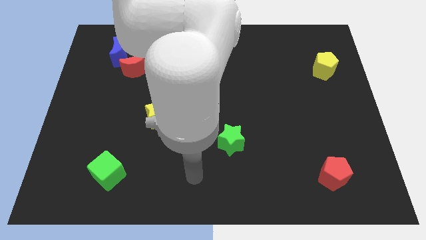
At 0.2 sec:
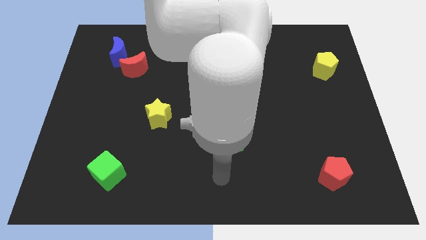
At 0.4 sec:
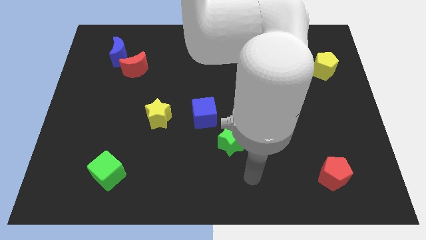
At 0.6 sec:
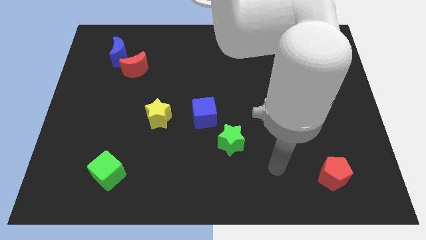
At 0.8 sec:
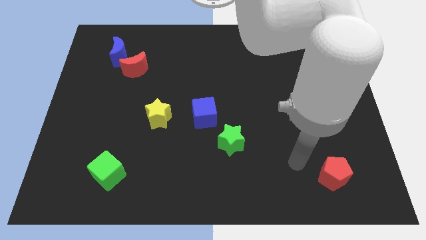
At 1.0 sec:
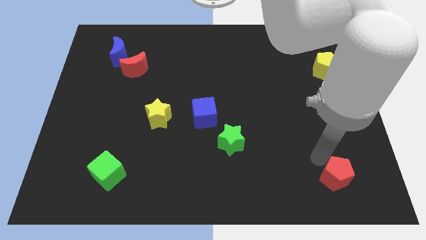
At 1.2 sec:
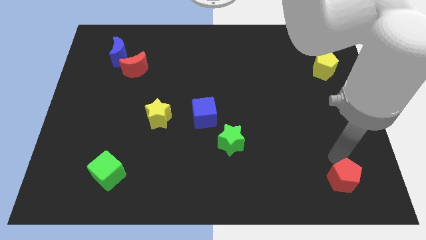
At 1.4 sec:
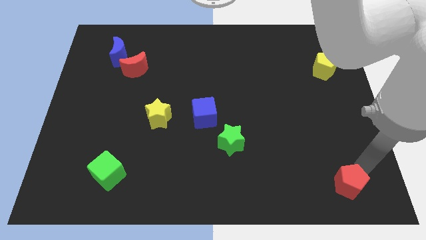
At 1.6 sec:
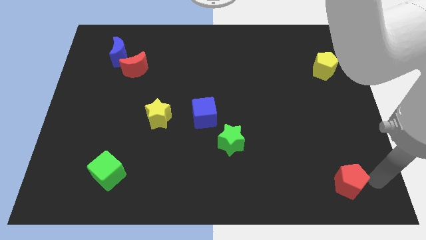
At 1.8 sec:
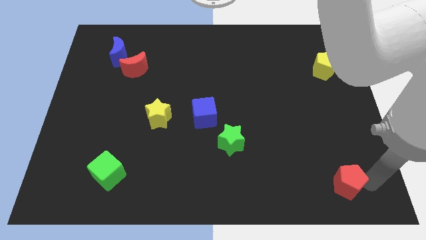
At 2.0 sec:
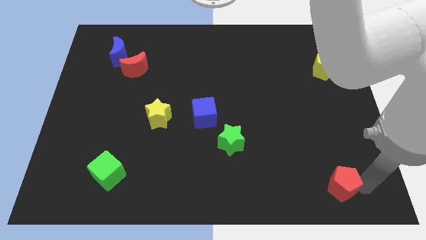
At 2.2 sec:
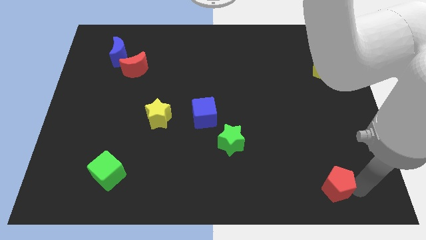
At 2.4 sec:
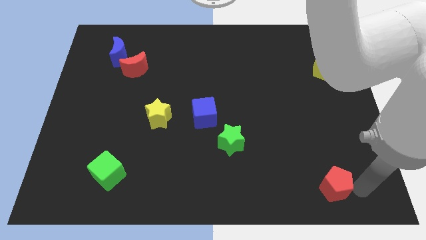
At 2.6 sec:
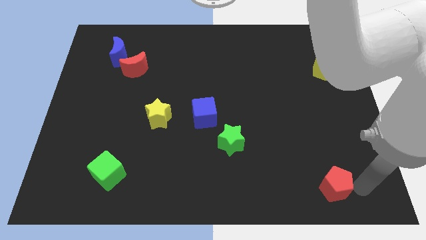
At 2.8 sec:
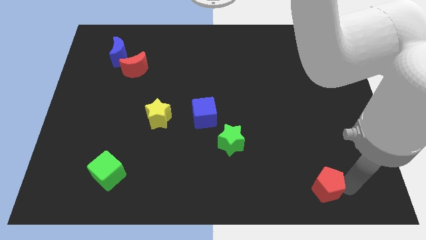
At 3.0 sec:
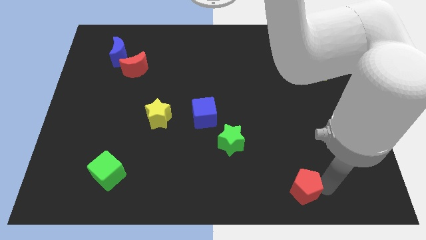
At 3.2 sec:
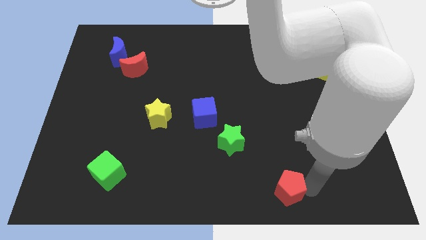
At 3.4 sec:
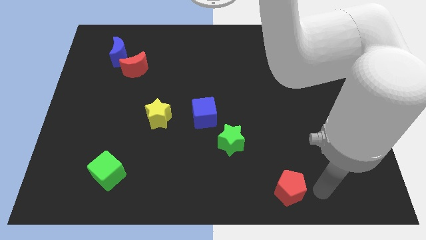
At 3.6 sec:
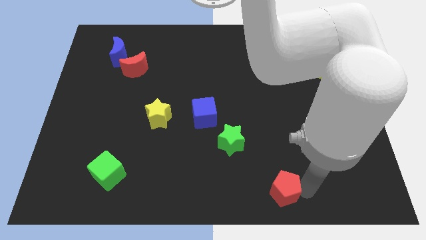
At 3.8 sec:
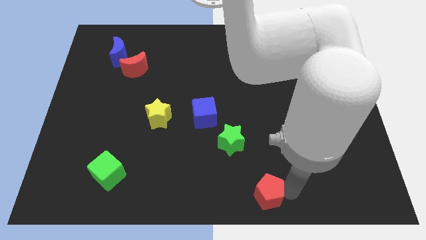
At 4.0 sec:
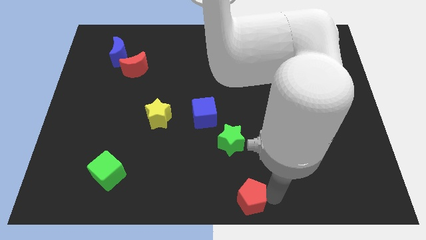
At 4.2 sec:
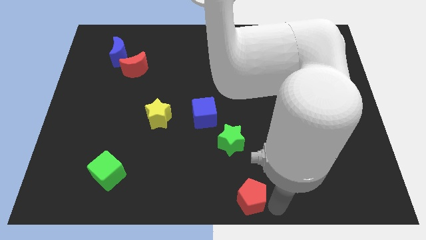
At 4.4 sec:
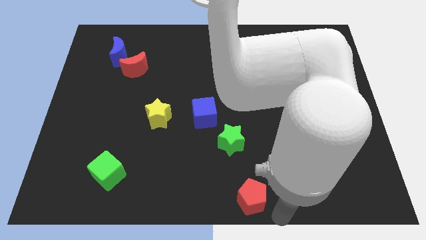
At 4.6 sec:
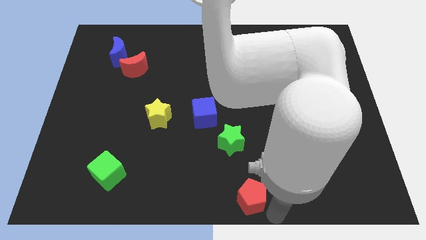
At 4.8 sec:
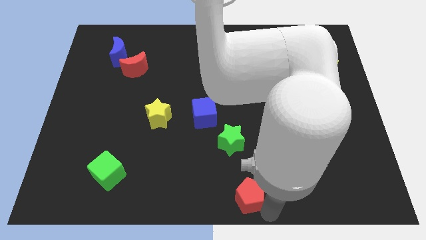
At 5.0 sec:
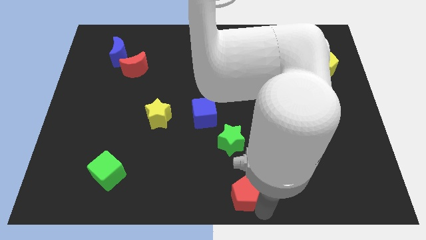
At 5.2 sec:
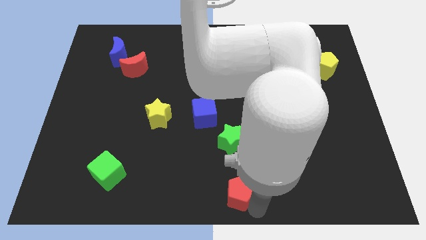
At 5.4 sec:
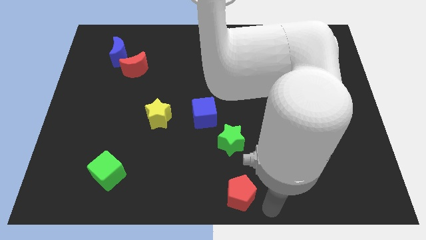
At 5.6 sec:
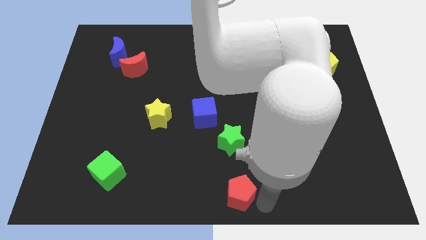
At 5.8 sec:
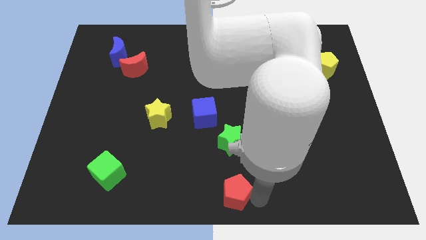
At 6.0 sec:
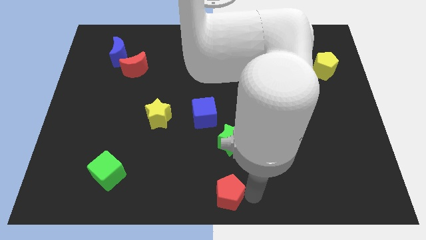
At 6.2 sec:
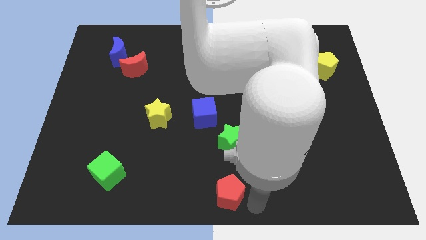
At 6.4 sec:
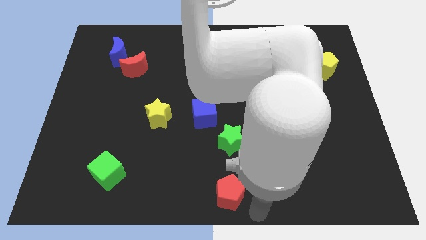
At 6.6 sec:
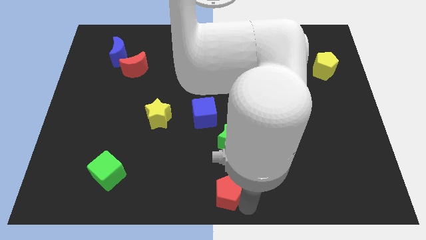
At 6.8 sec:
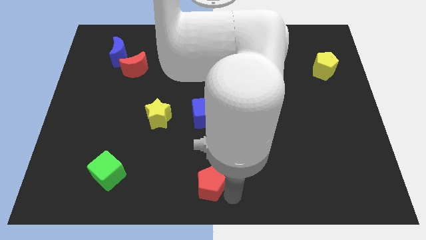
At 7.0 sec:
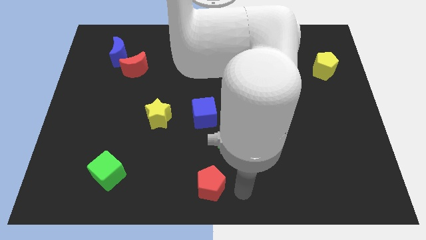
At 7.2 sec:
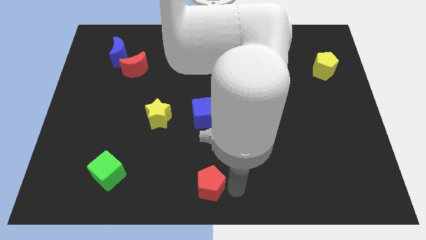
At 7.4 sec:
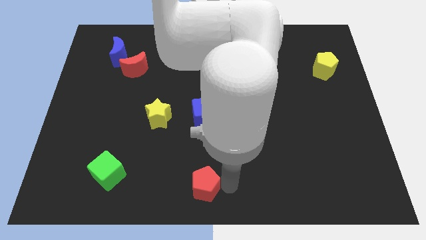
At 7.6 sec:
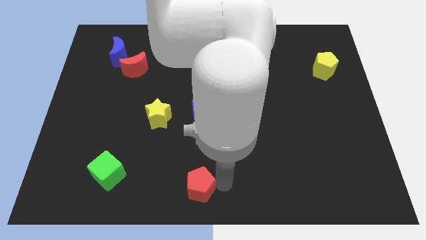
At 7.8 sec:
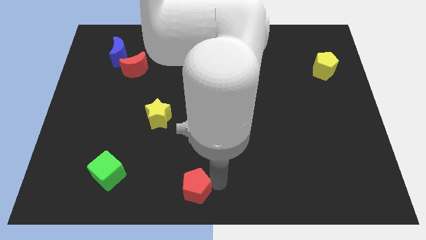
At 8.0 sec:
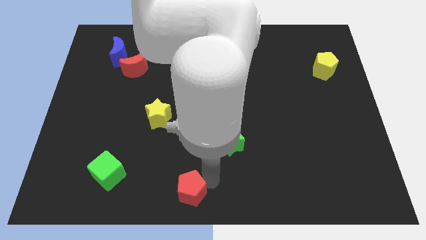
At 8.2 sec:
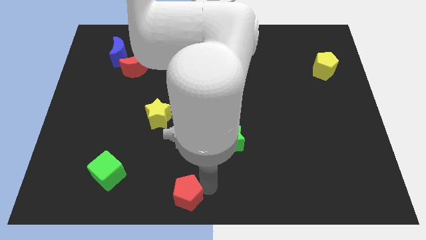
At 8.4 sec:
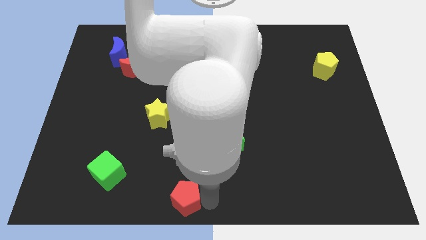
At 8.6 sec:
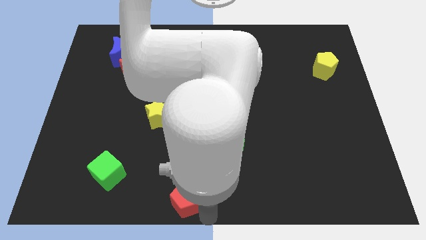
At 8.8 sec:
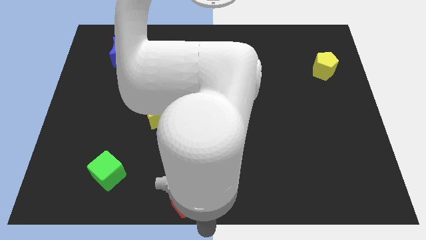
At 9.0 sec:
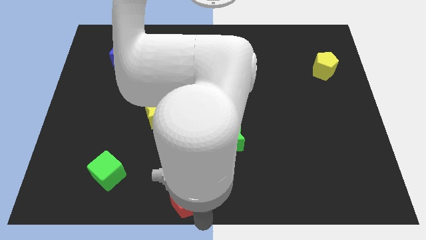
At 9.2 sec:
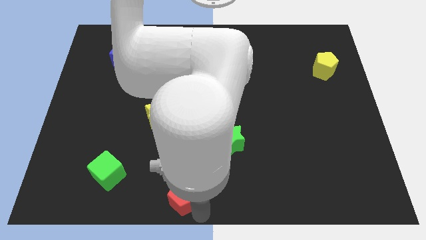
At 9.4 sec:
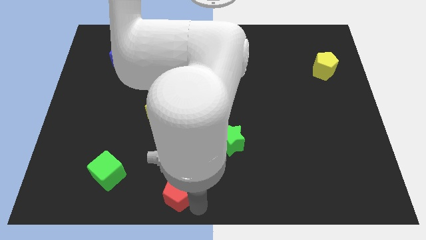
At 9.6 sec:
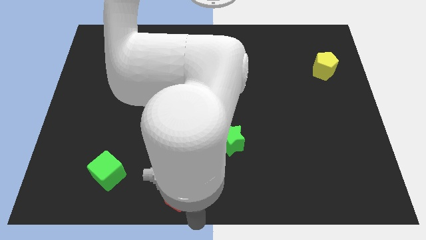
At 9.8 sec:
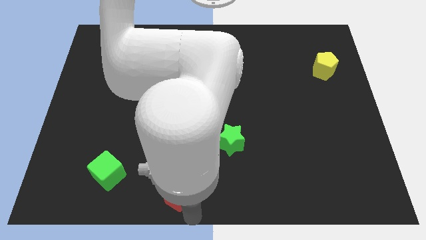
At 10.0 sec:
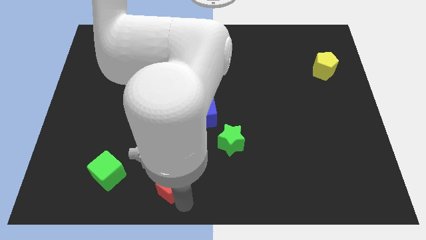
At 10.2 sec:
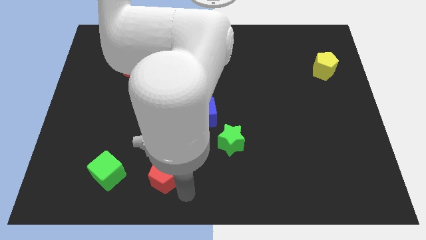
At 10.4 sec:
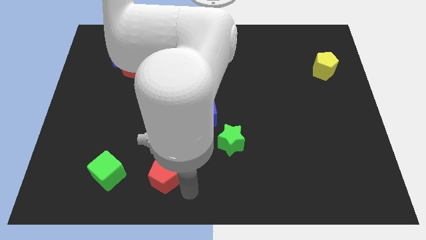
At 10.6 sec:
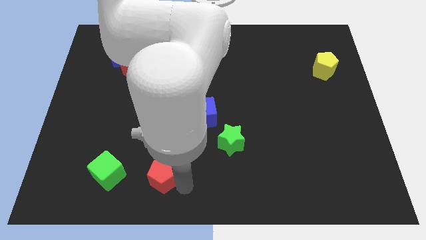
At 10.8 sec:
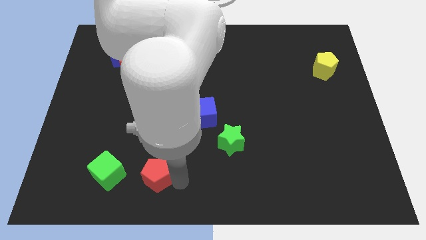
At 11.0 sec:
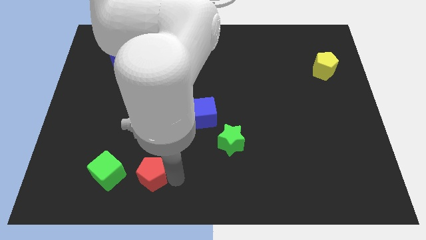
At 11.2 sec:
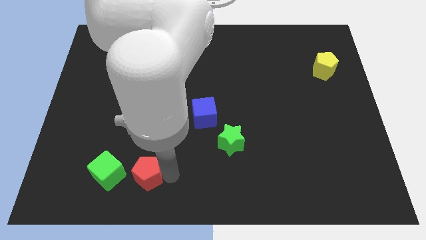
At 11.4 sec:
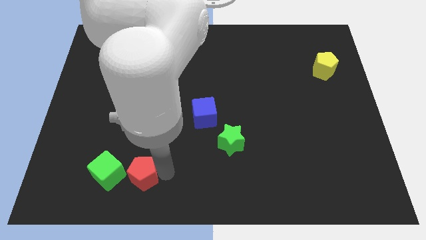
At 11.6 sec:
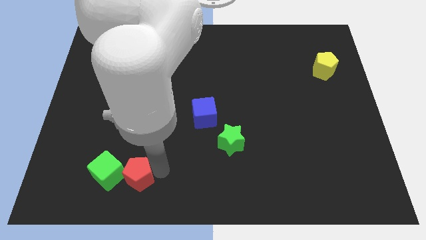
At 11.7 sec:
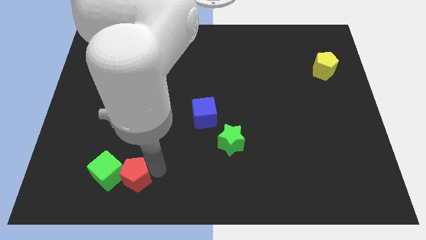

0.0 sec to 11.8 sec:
move the red pentagon close to the green cube

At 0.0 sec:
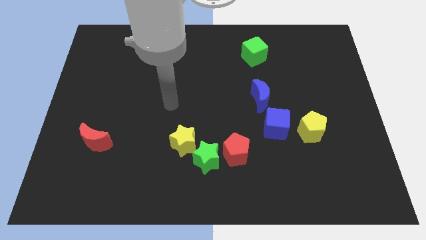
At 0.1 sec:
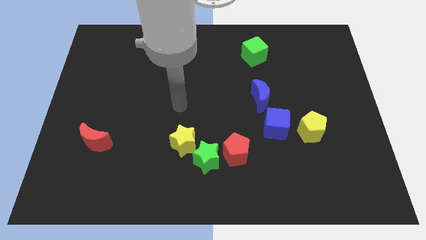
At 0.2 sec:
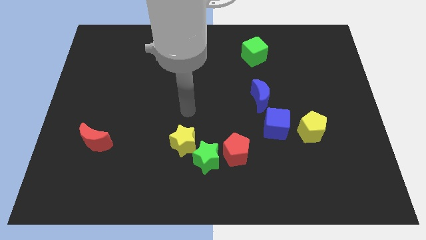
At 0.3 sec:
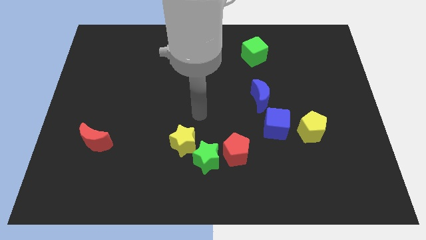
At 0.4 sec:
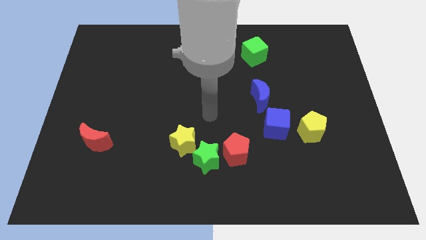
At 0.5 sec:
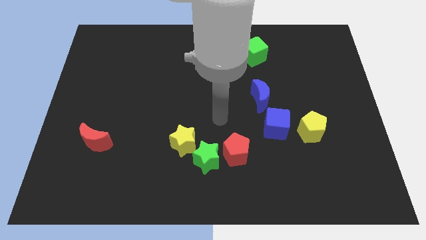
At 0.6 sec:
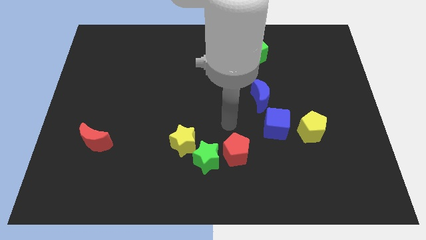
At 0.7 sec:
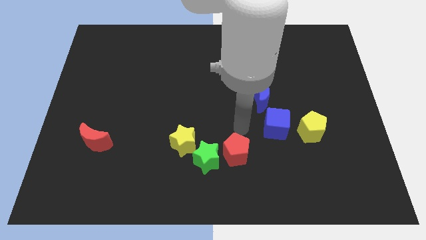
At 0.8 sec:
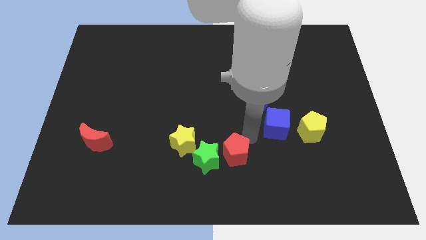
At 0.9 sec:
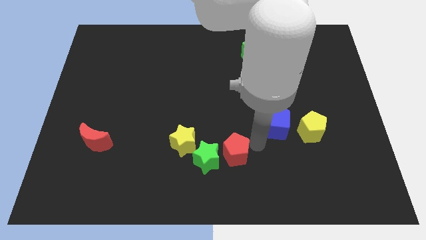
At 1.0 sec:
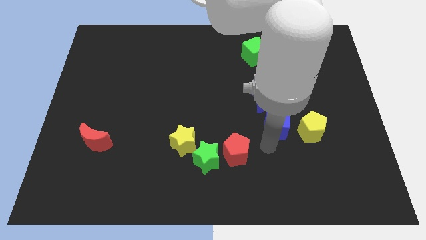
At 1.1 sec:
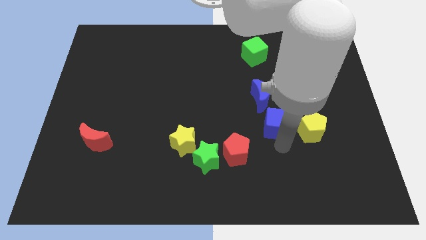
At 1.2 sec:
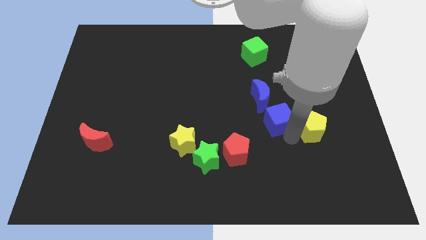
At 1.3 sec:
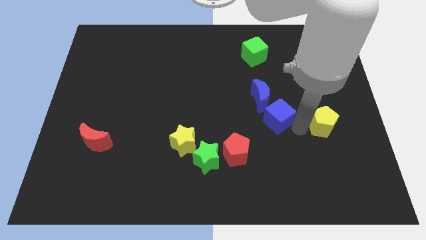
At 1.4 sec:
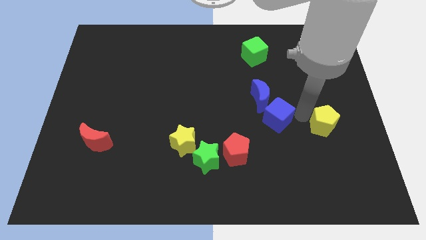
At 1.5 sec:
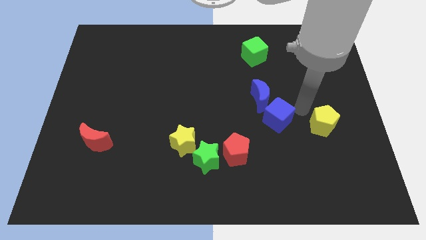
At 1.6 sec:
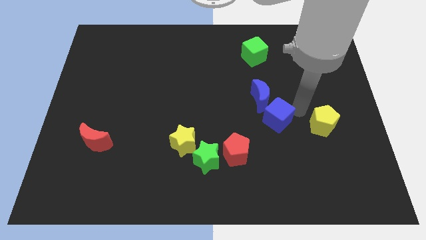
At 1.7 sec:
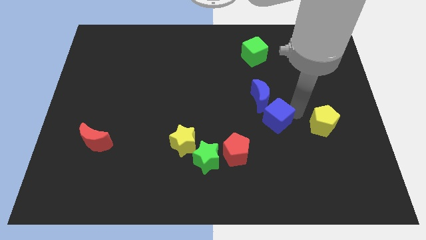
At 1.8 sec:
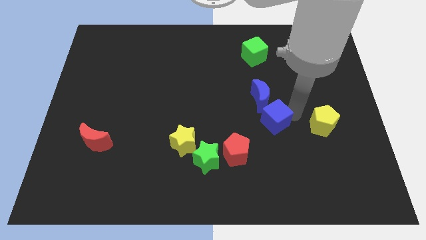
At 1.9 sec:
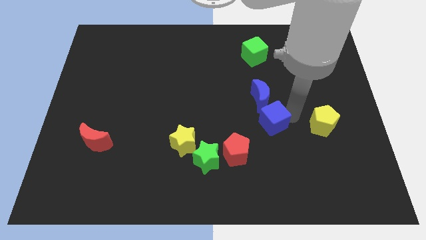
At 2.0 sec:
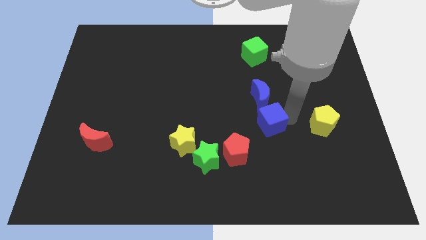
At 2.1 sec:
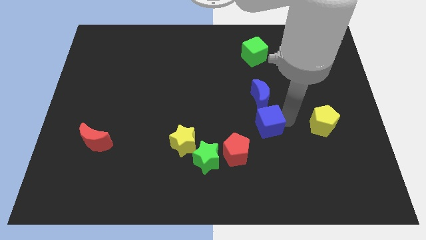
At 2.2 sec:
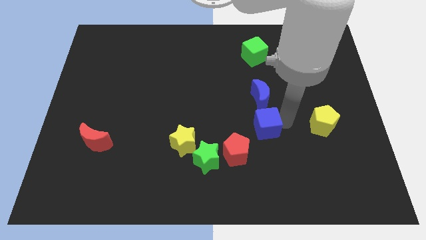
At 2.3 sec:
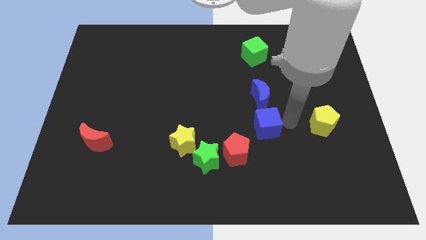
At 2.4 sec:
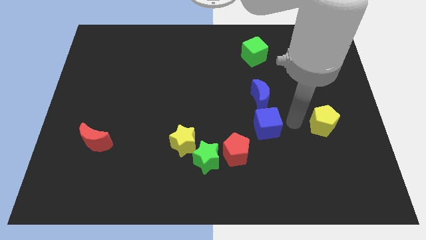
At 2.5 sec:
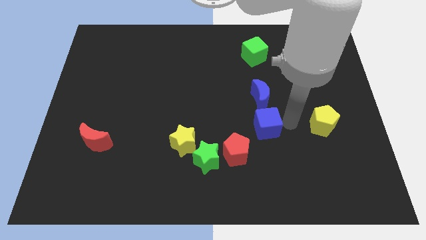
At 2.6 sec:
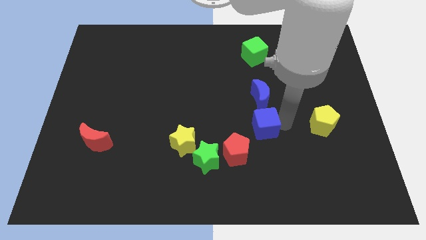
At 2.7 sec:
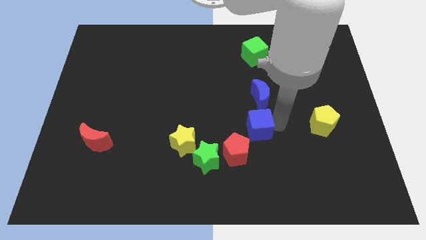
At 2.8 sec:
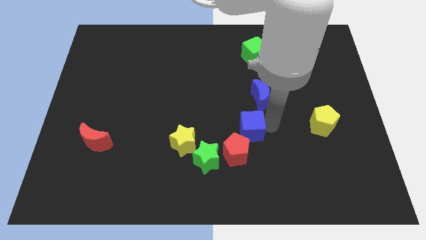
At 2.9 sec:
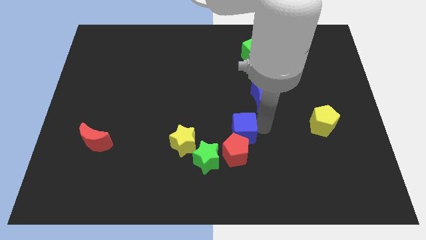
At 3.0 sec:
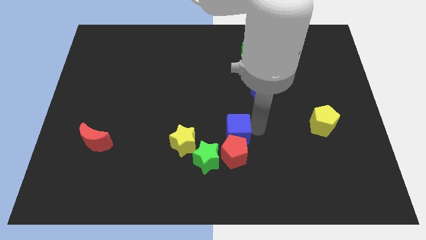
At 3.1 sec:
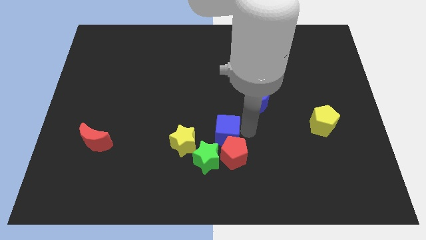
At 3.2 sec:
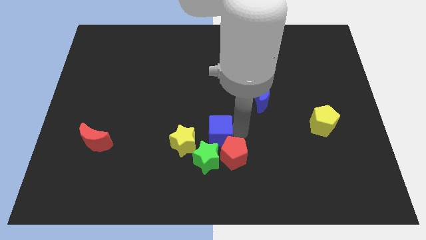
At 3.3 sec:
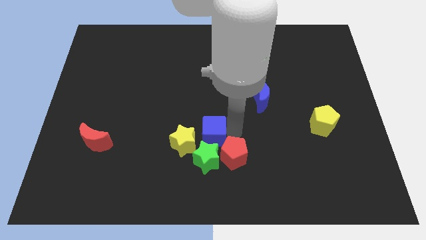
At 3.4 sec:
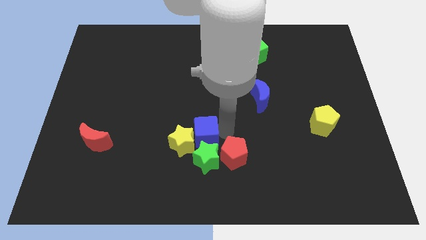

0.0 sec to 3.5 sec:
push the blue cube towards the yellow star
